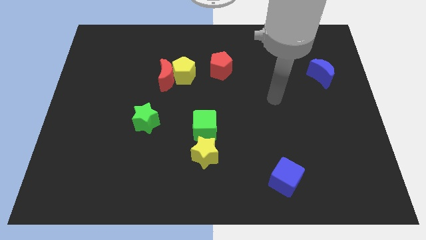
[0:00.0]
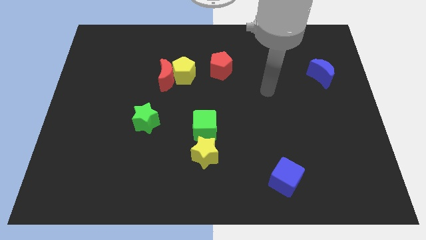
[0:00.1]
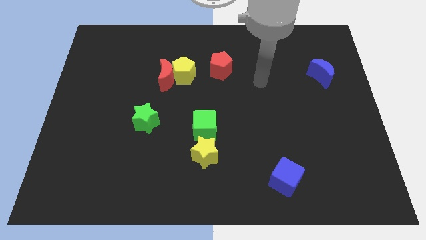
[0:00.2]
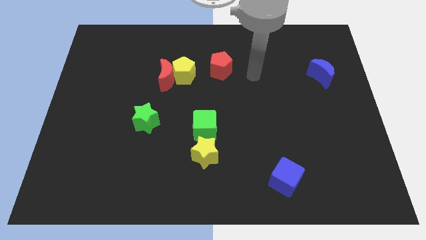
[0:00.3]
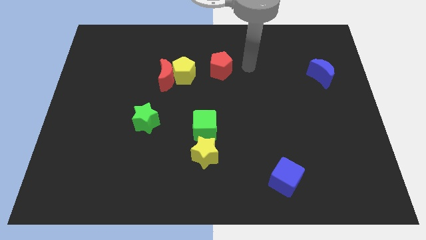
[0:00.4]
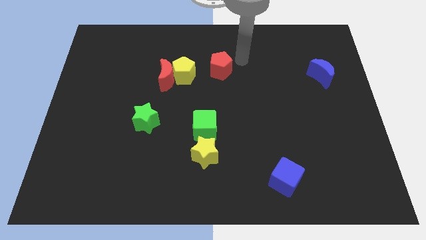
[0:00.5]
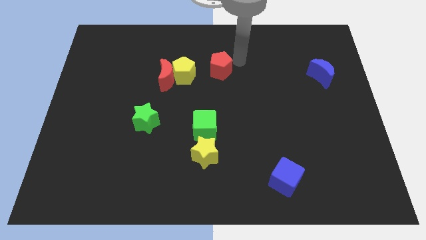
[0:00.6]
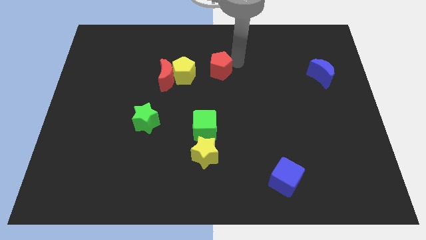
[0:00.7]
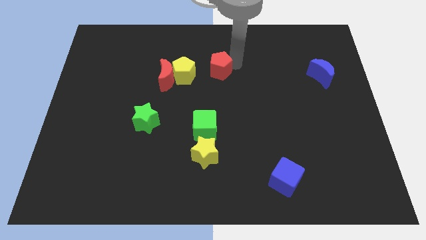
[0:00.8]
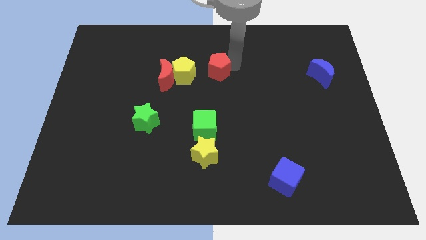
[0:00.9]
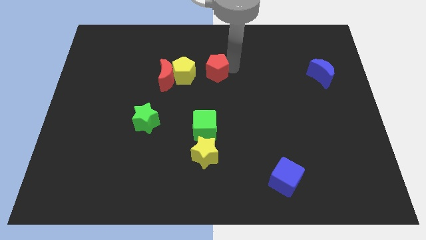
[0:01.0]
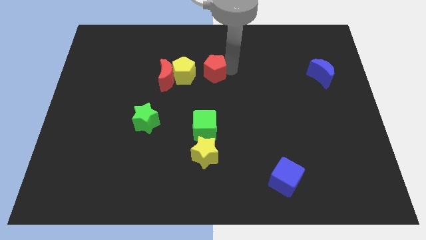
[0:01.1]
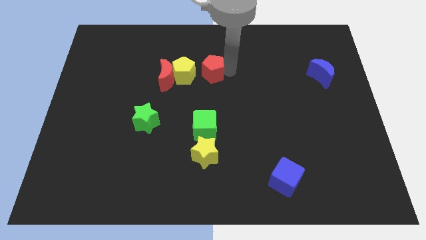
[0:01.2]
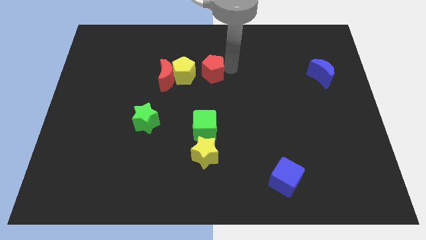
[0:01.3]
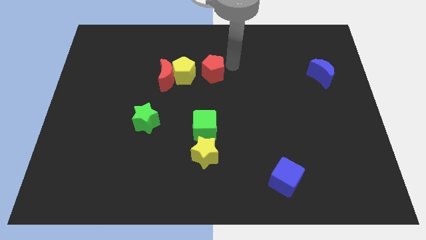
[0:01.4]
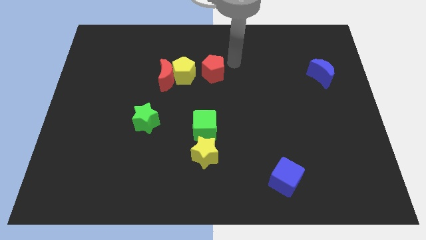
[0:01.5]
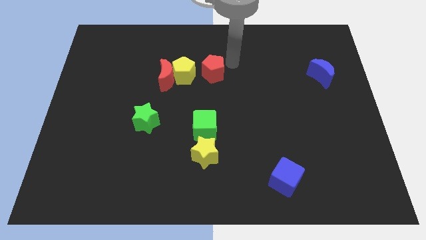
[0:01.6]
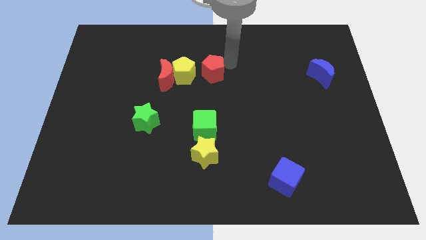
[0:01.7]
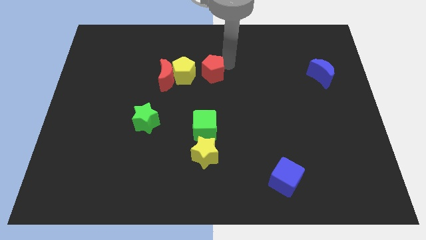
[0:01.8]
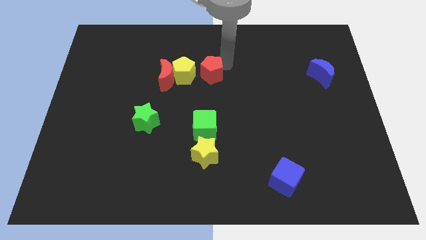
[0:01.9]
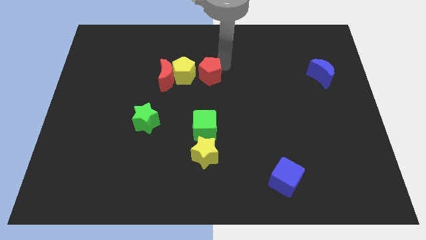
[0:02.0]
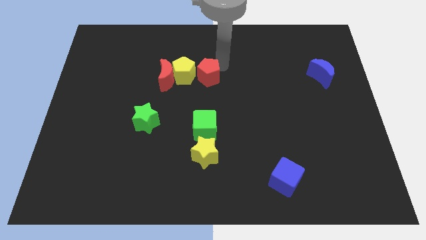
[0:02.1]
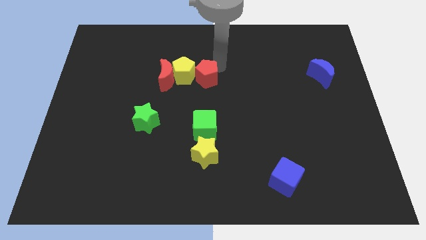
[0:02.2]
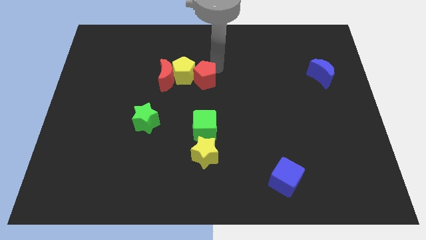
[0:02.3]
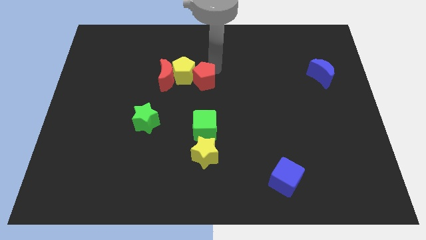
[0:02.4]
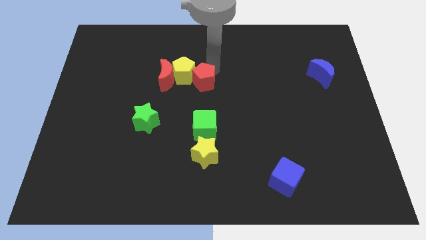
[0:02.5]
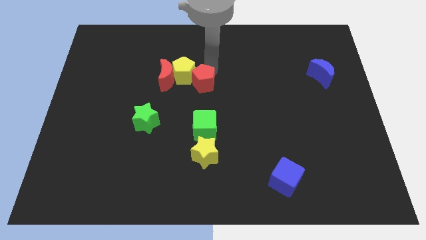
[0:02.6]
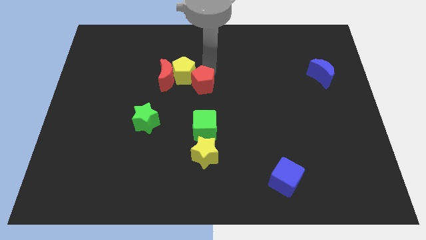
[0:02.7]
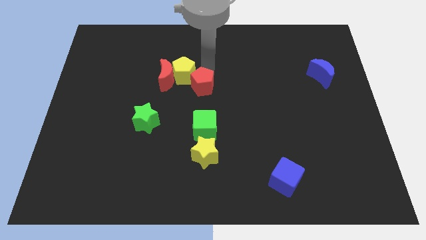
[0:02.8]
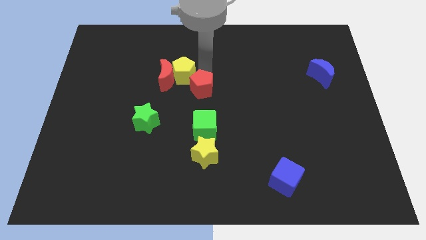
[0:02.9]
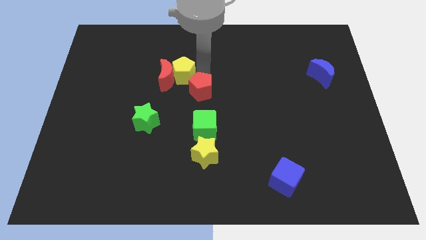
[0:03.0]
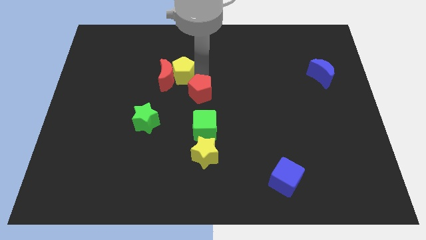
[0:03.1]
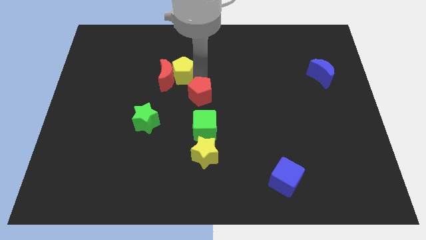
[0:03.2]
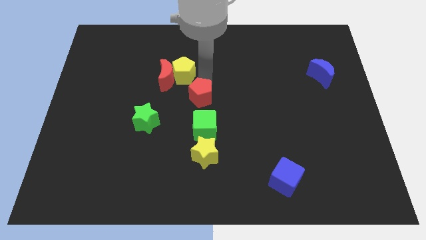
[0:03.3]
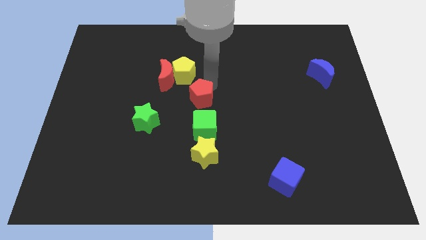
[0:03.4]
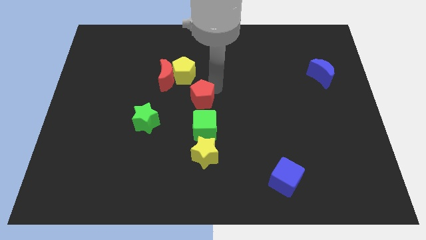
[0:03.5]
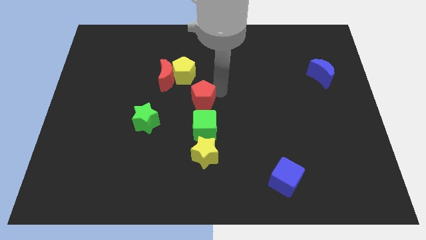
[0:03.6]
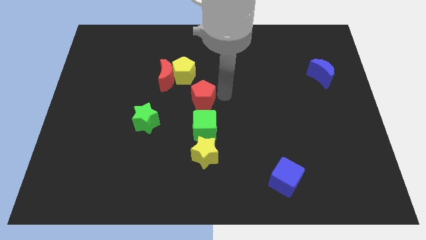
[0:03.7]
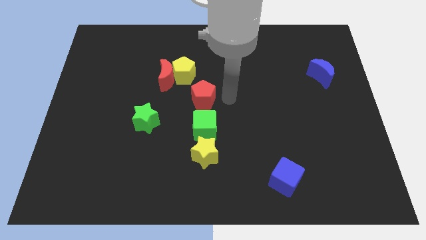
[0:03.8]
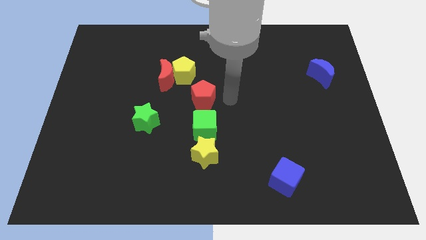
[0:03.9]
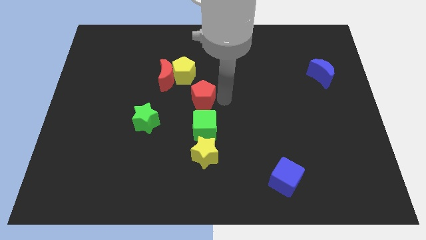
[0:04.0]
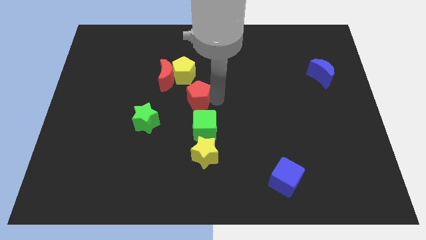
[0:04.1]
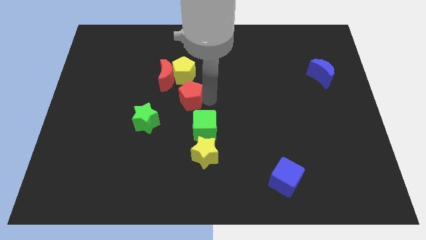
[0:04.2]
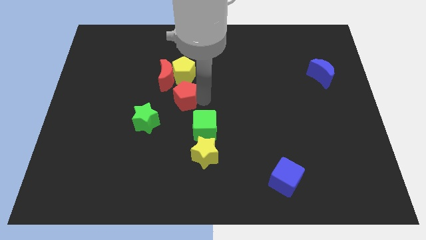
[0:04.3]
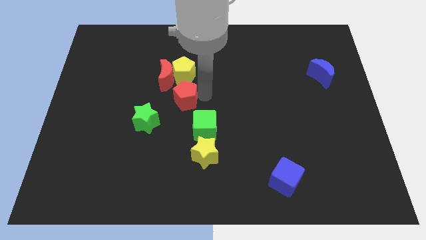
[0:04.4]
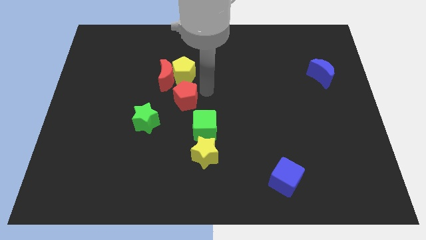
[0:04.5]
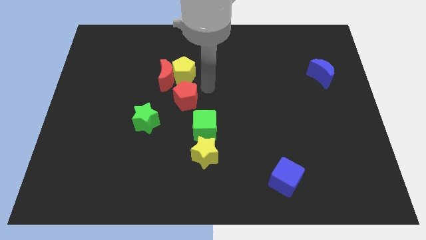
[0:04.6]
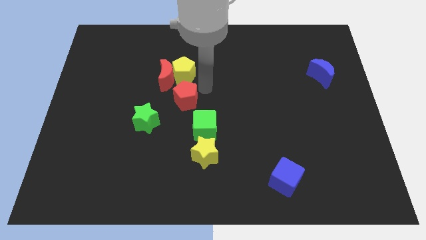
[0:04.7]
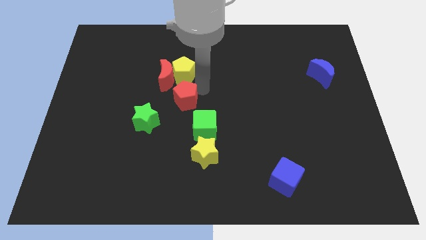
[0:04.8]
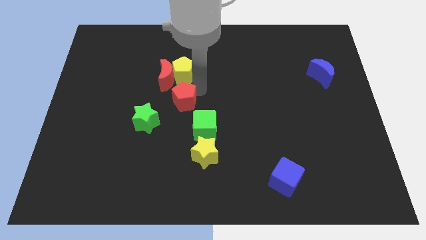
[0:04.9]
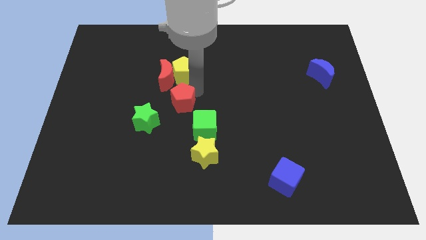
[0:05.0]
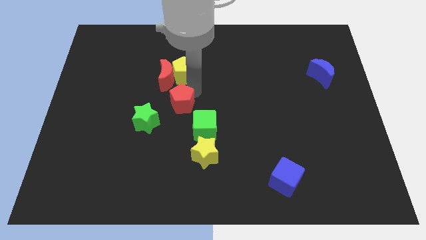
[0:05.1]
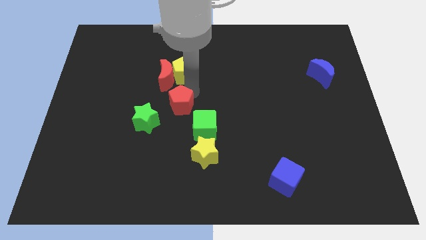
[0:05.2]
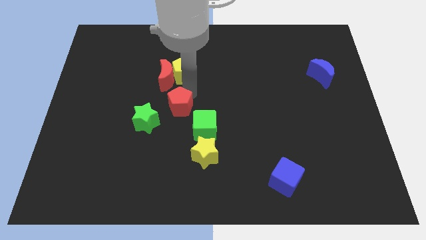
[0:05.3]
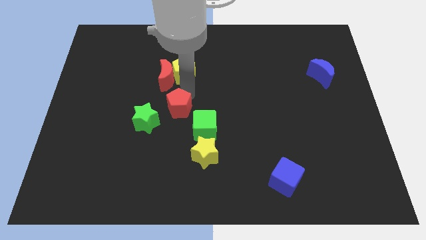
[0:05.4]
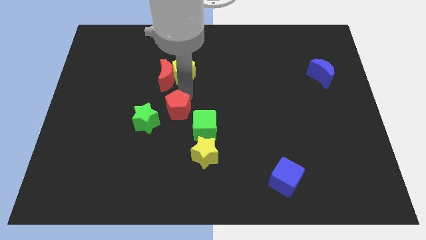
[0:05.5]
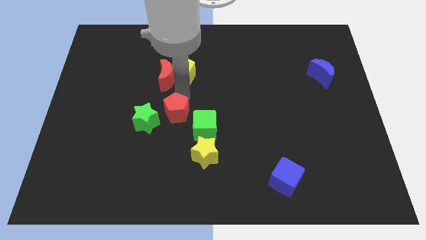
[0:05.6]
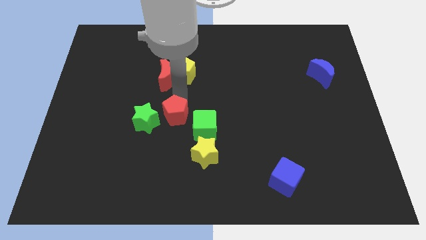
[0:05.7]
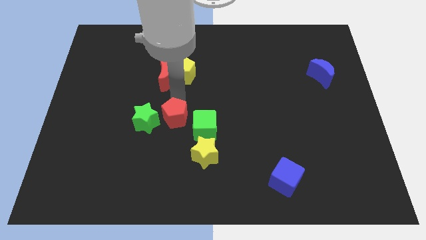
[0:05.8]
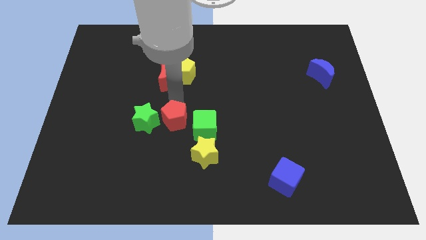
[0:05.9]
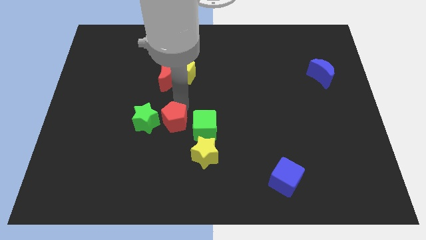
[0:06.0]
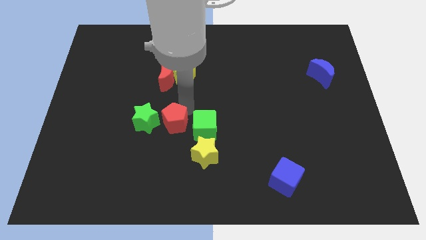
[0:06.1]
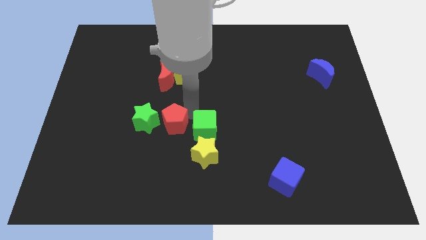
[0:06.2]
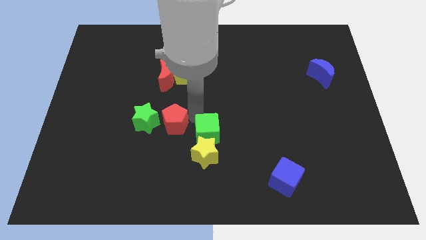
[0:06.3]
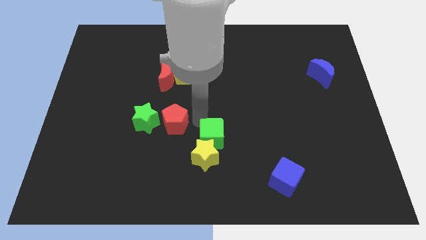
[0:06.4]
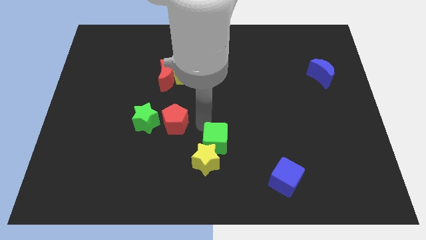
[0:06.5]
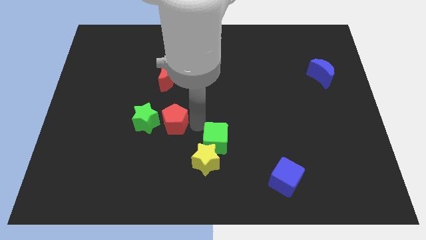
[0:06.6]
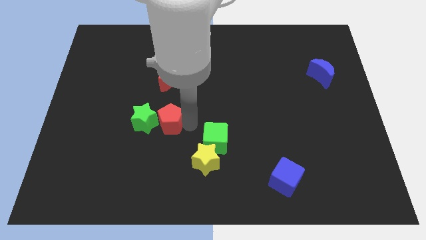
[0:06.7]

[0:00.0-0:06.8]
put the red pentagon towards the green star

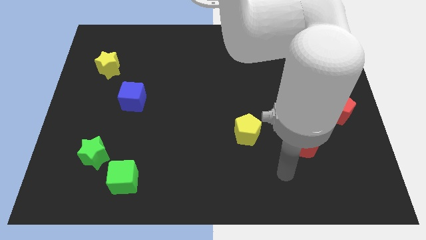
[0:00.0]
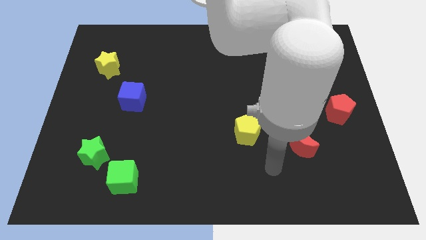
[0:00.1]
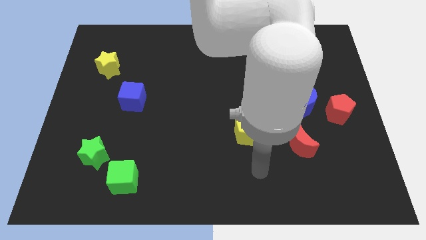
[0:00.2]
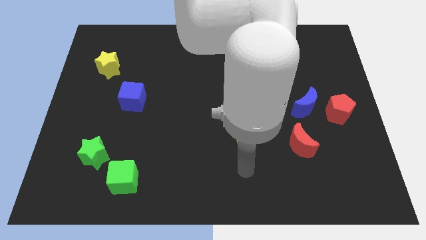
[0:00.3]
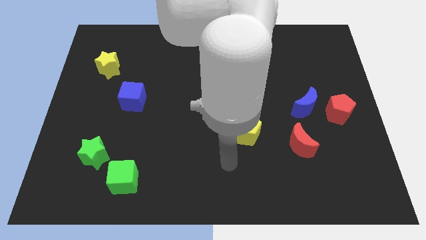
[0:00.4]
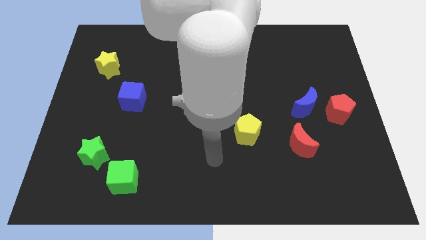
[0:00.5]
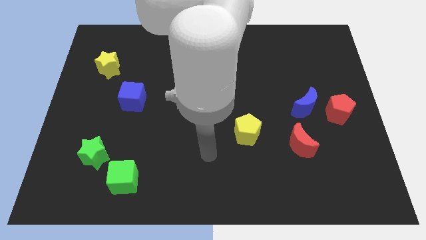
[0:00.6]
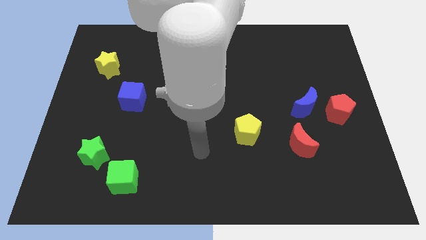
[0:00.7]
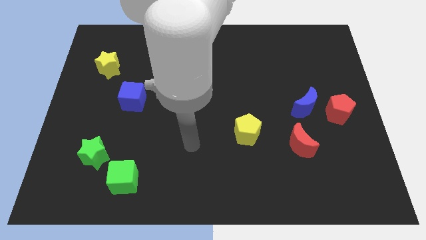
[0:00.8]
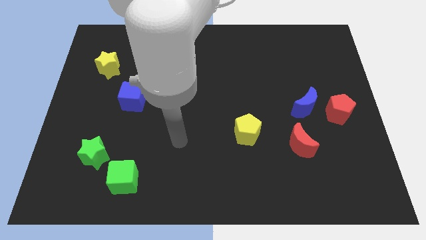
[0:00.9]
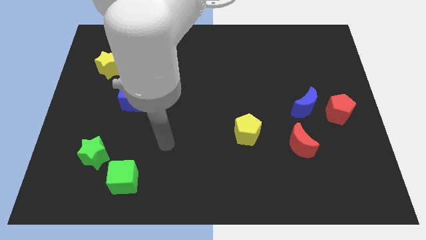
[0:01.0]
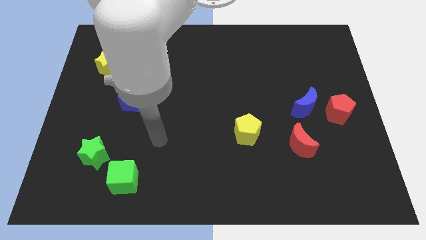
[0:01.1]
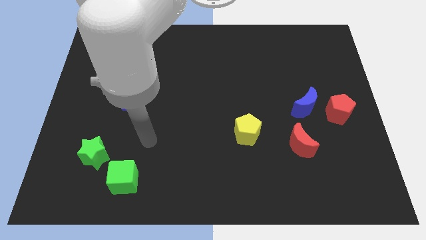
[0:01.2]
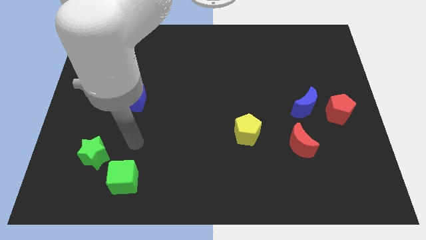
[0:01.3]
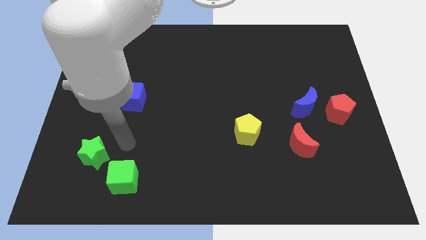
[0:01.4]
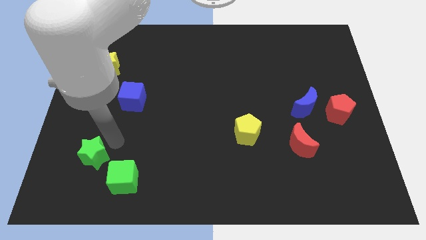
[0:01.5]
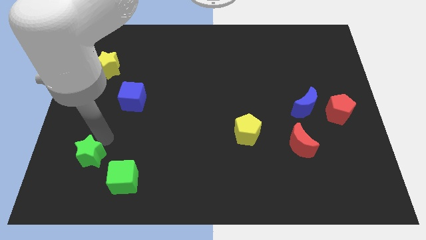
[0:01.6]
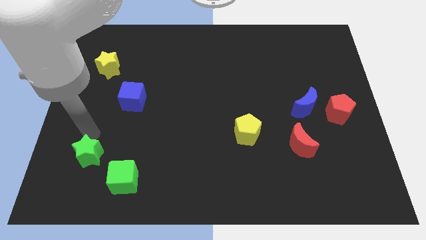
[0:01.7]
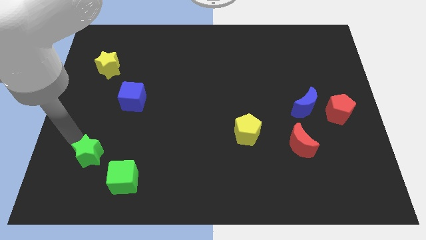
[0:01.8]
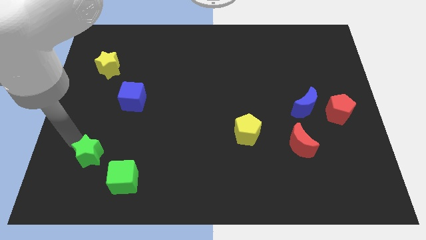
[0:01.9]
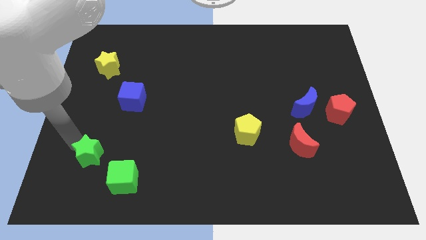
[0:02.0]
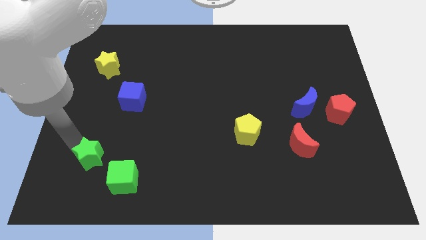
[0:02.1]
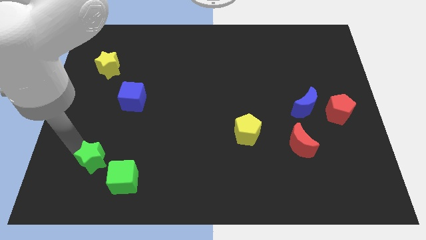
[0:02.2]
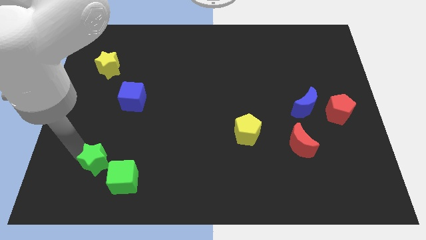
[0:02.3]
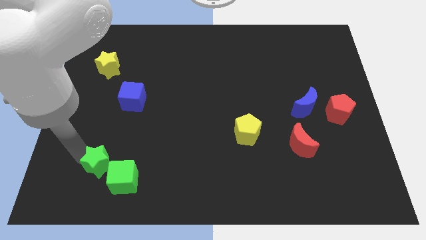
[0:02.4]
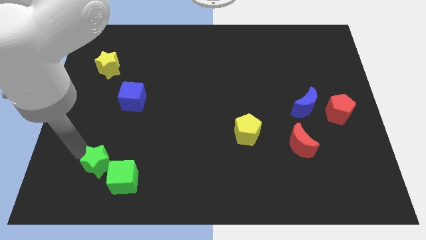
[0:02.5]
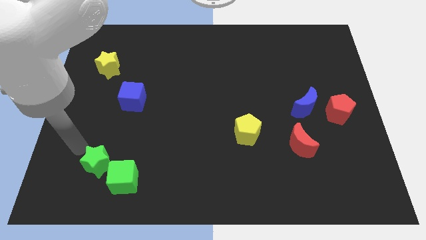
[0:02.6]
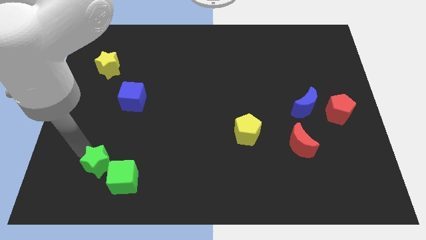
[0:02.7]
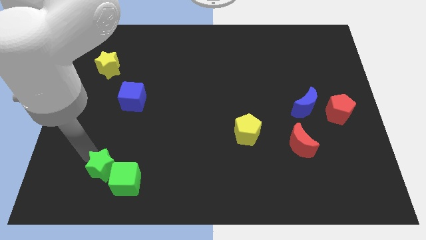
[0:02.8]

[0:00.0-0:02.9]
slide the green star to the green cube
